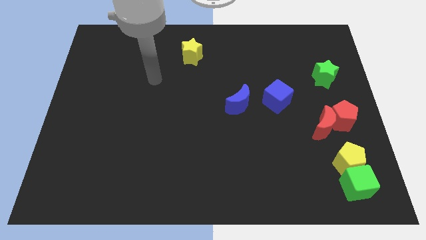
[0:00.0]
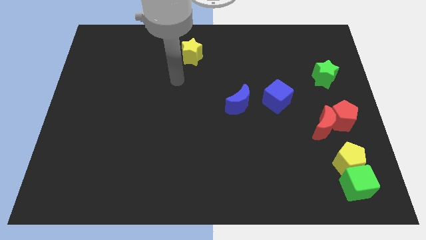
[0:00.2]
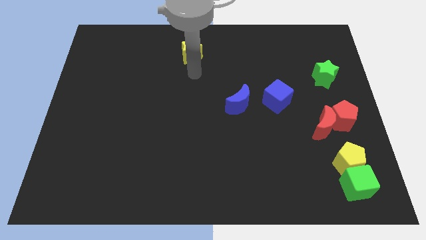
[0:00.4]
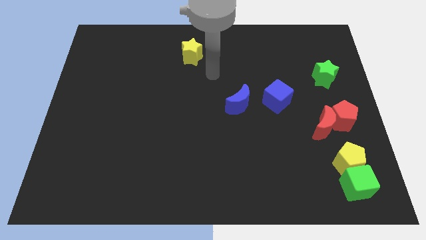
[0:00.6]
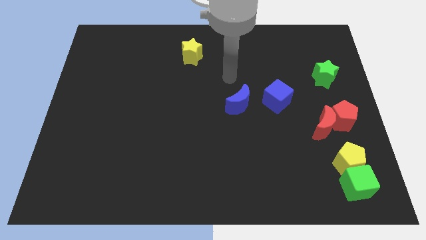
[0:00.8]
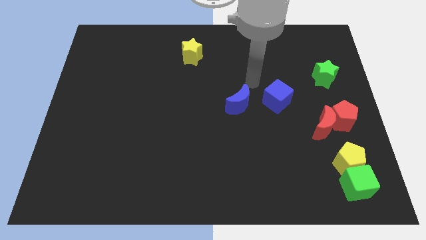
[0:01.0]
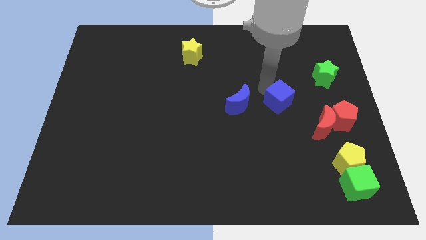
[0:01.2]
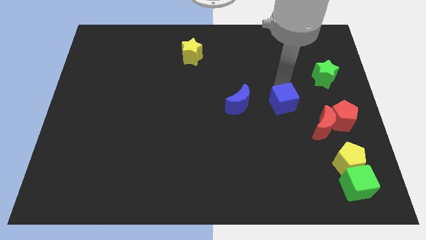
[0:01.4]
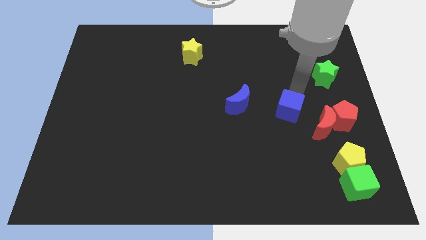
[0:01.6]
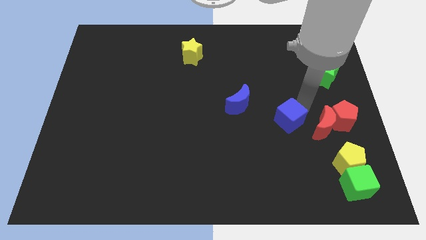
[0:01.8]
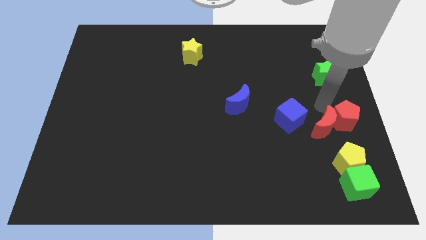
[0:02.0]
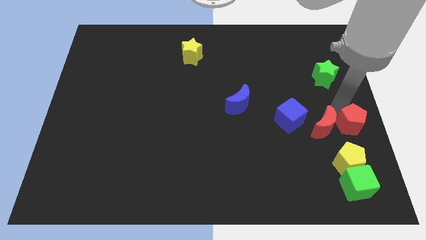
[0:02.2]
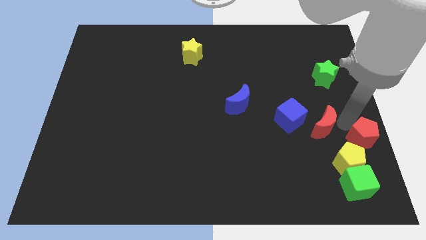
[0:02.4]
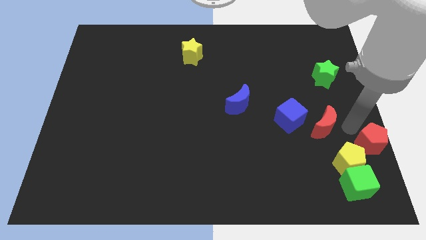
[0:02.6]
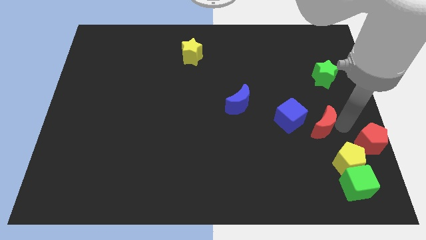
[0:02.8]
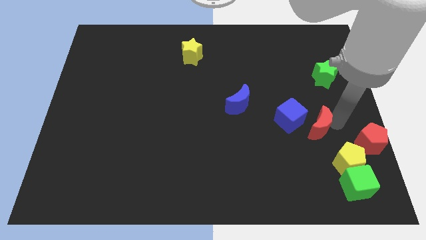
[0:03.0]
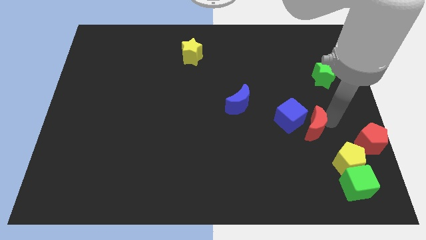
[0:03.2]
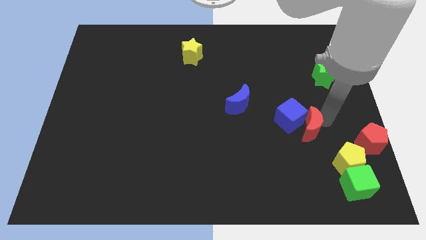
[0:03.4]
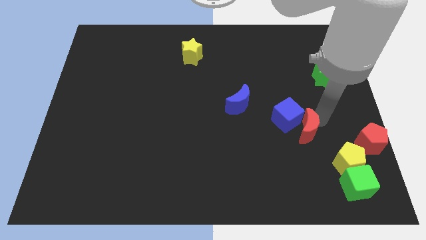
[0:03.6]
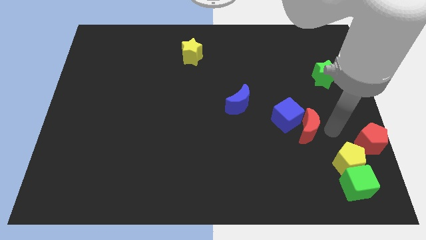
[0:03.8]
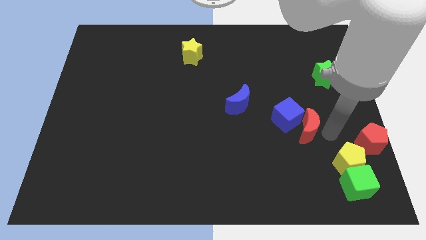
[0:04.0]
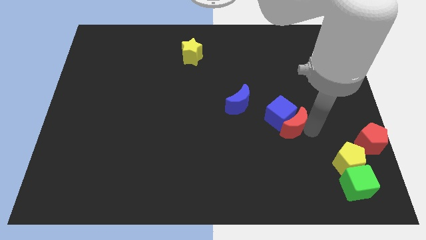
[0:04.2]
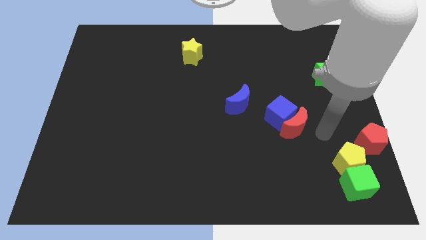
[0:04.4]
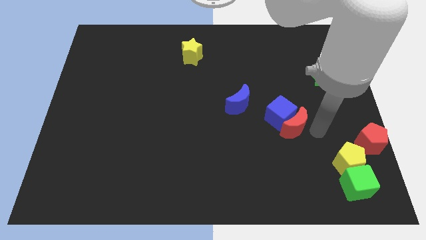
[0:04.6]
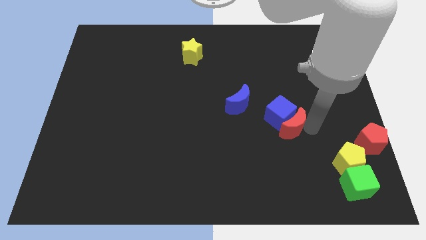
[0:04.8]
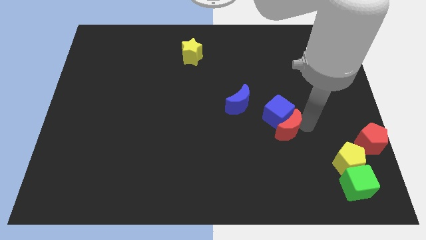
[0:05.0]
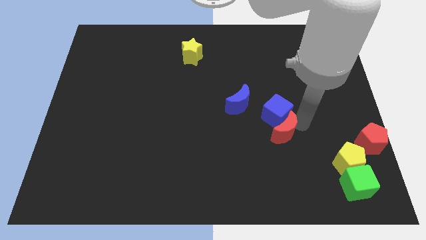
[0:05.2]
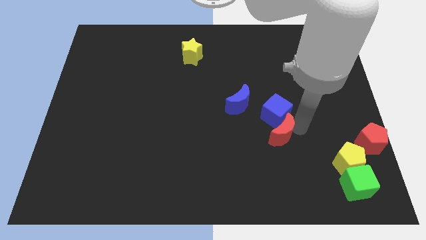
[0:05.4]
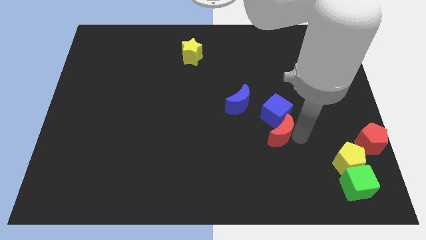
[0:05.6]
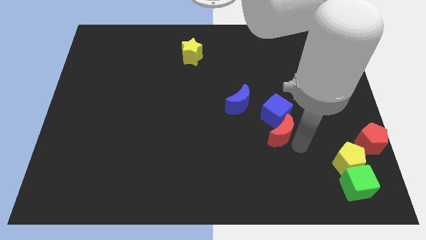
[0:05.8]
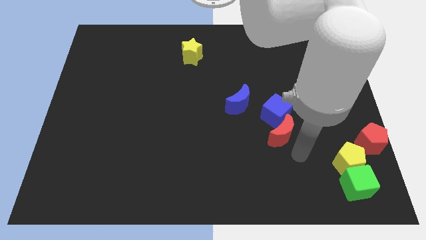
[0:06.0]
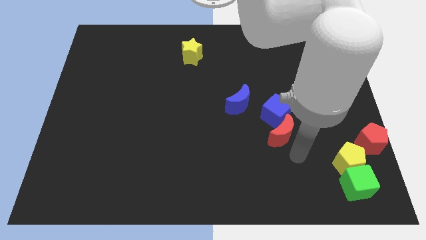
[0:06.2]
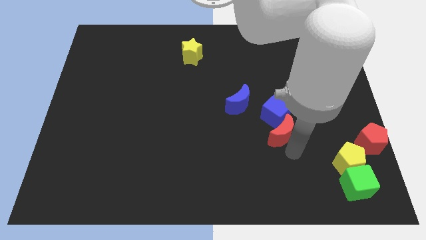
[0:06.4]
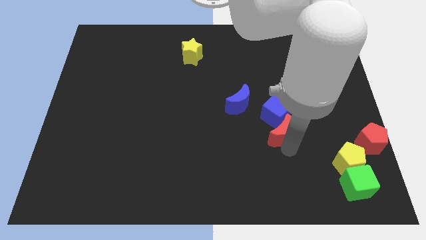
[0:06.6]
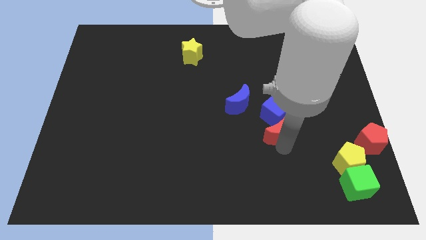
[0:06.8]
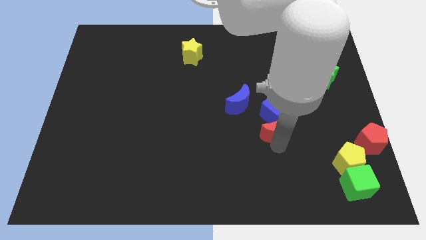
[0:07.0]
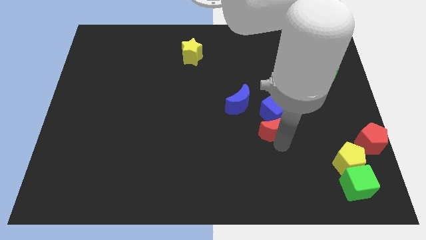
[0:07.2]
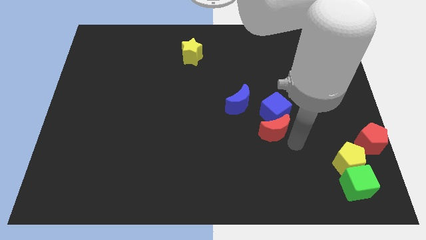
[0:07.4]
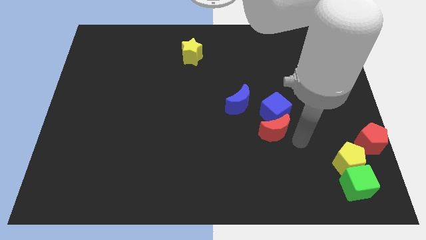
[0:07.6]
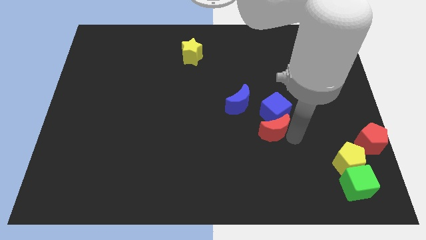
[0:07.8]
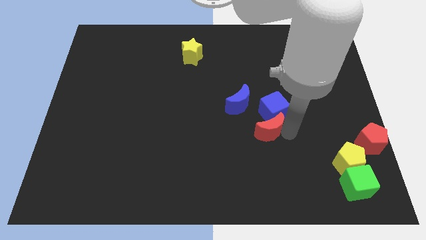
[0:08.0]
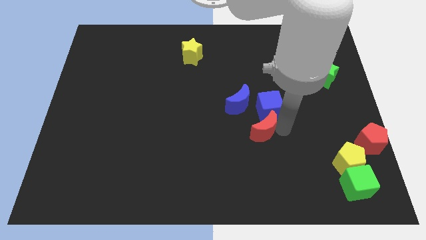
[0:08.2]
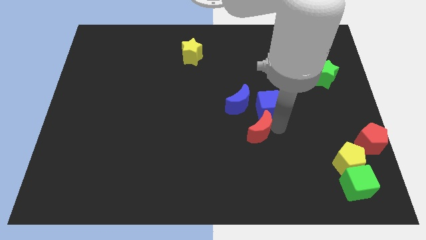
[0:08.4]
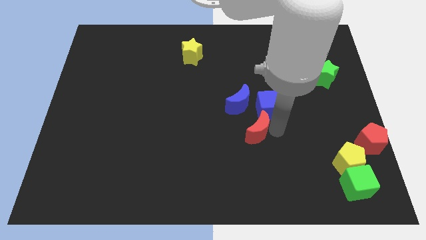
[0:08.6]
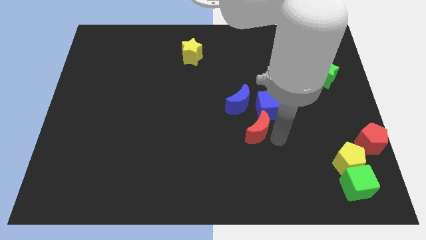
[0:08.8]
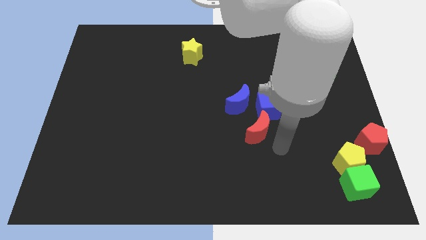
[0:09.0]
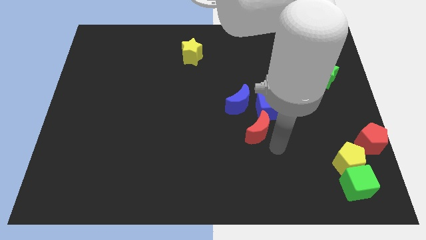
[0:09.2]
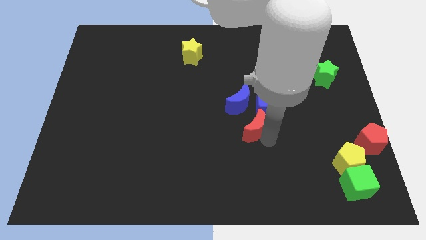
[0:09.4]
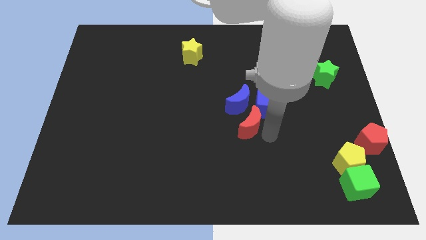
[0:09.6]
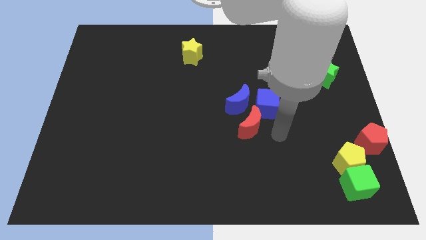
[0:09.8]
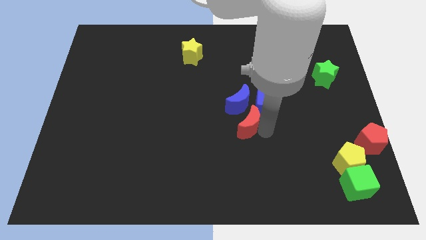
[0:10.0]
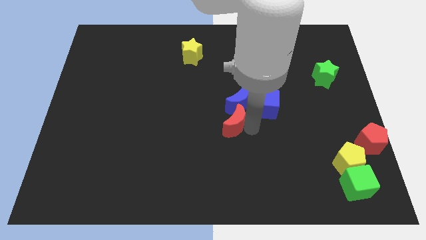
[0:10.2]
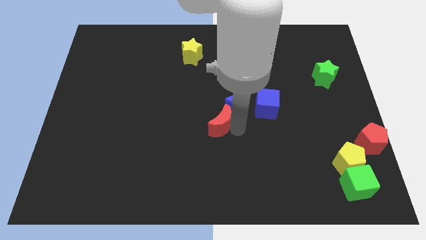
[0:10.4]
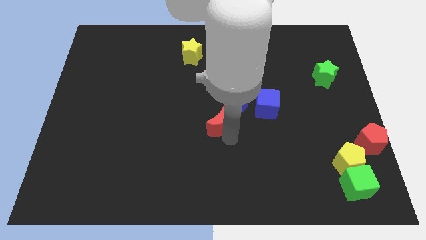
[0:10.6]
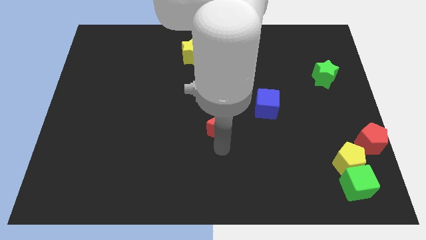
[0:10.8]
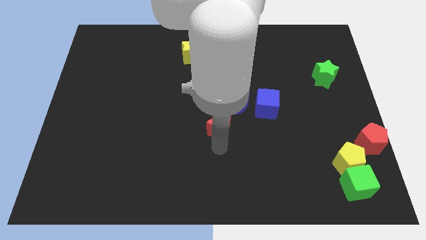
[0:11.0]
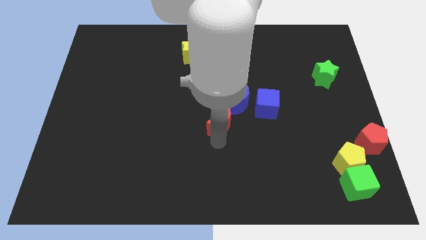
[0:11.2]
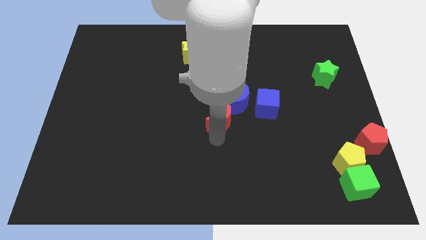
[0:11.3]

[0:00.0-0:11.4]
slide the red moon just left of the blue cube
